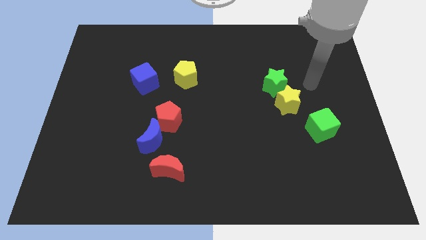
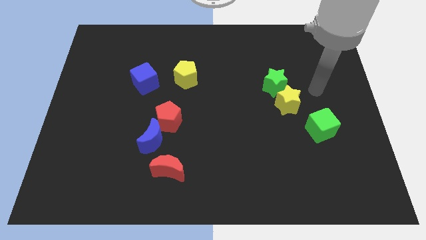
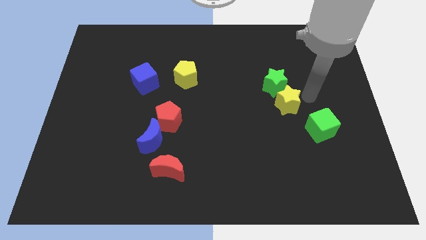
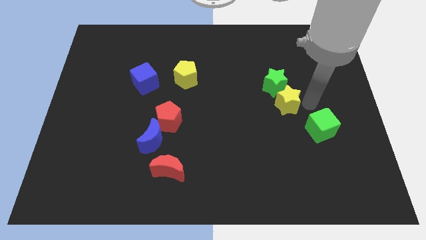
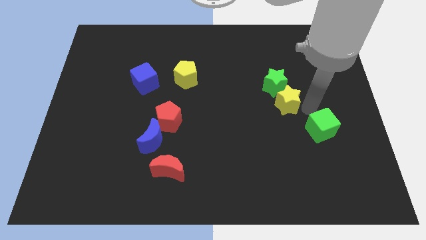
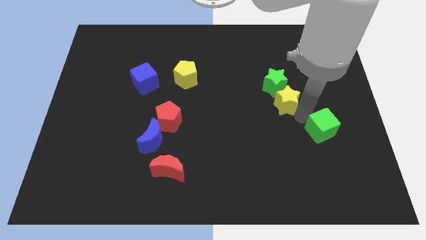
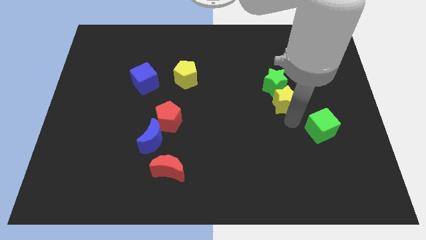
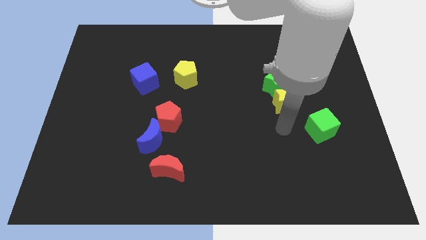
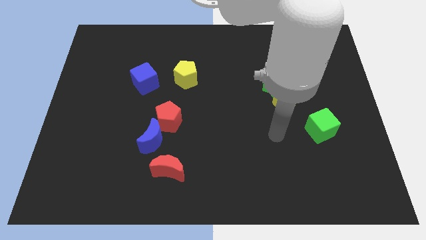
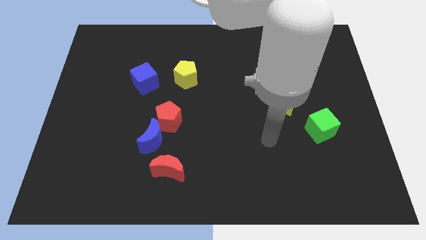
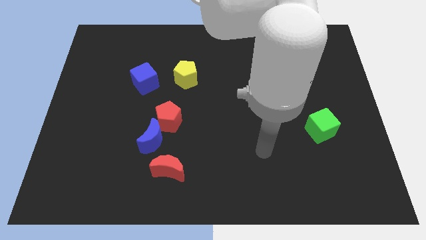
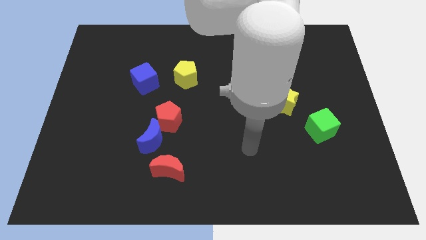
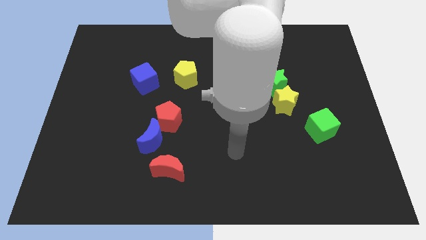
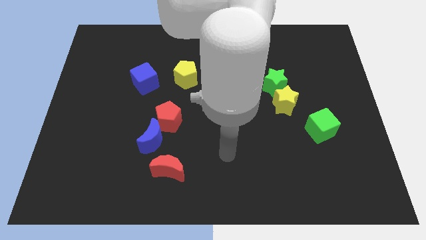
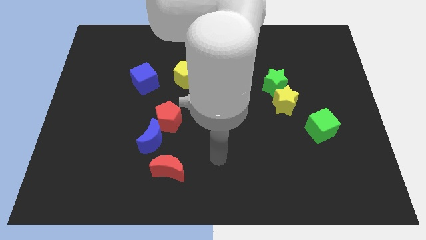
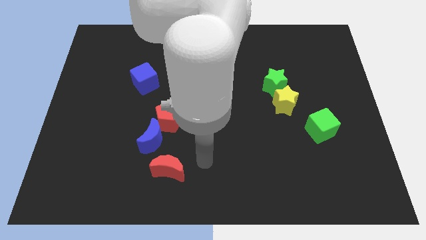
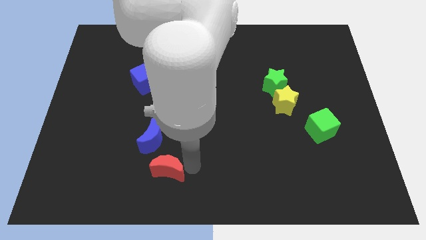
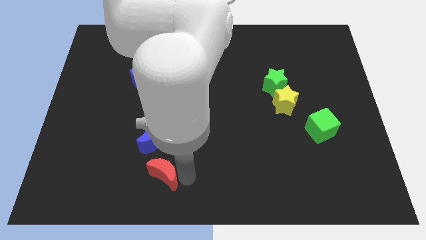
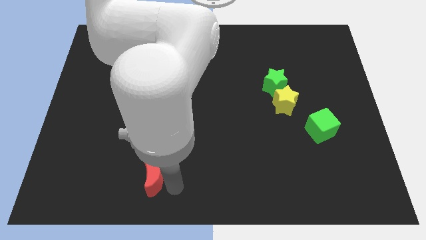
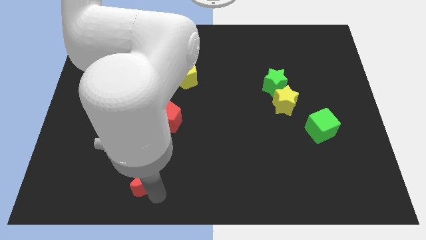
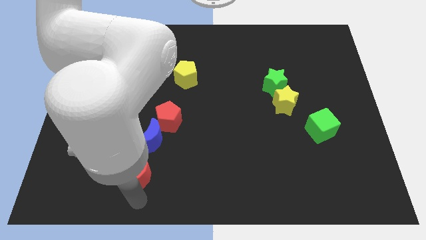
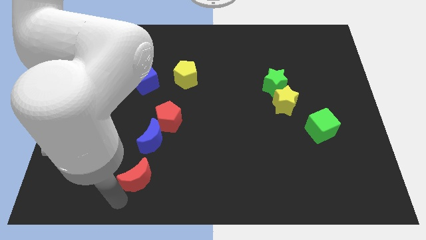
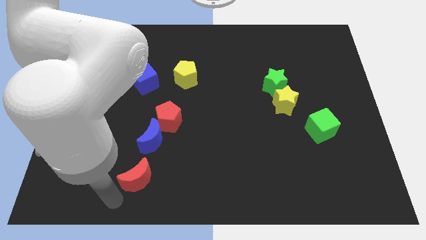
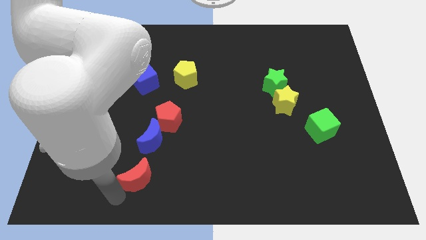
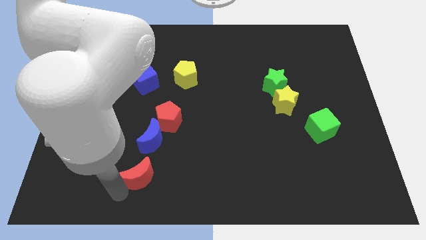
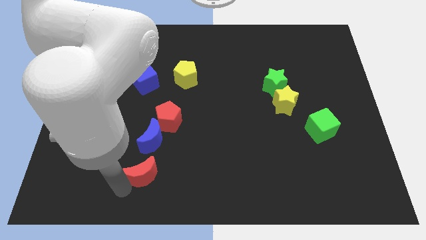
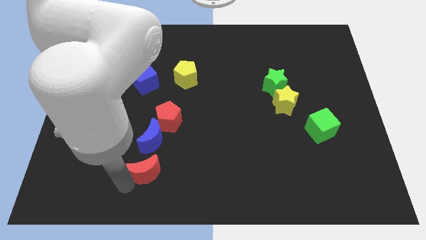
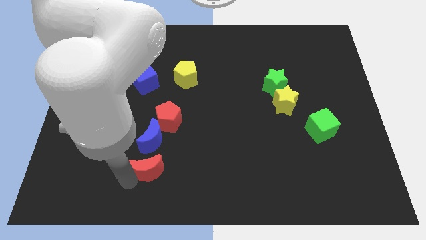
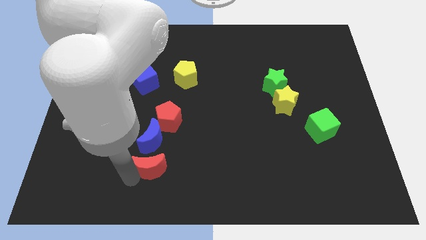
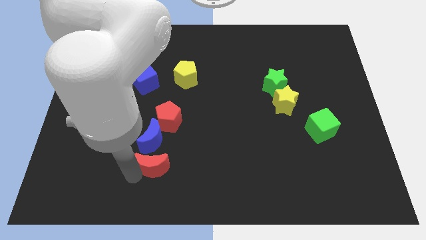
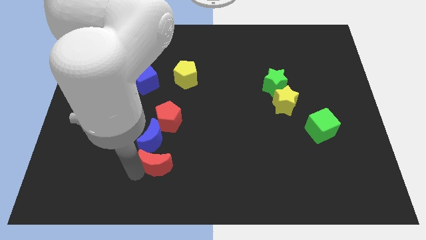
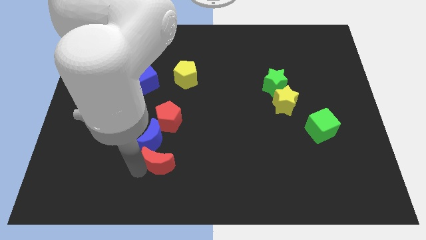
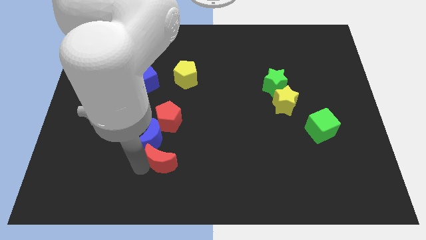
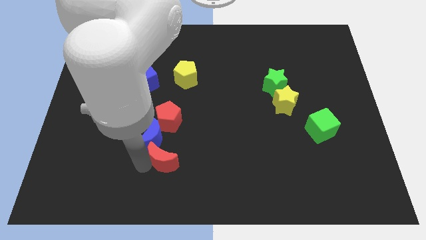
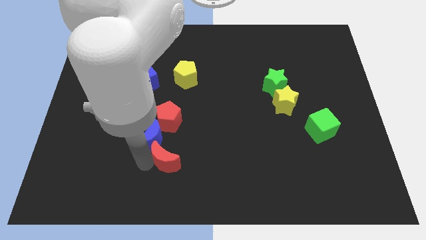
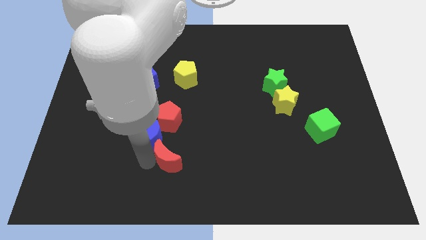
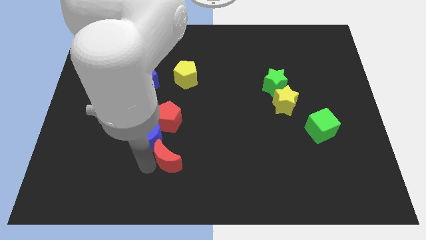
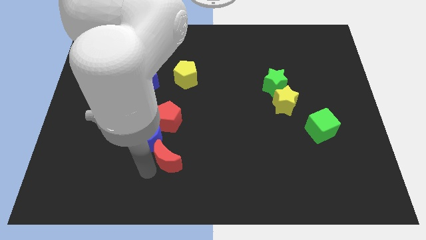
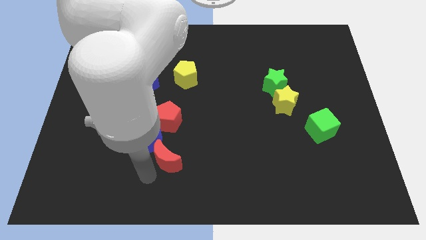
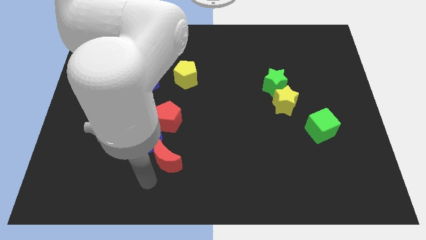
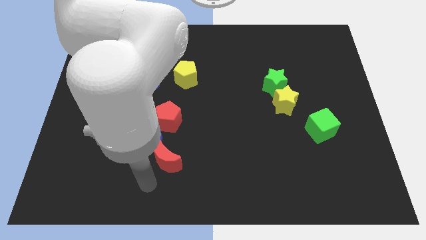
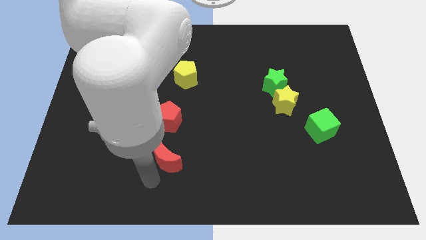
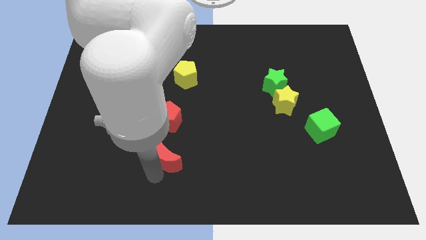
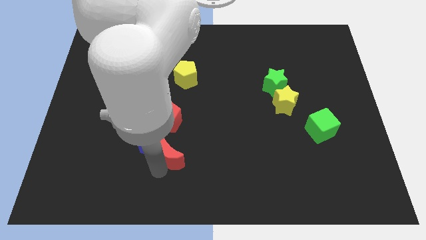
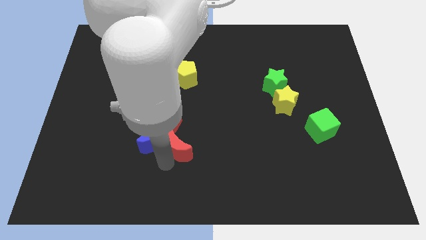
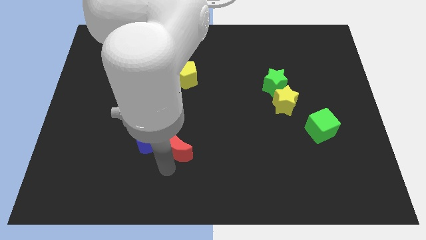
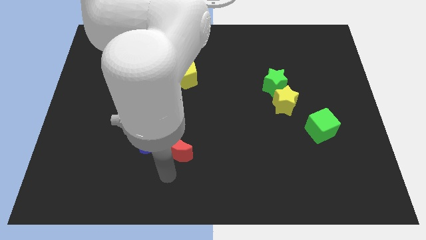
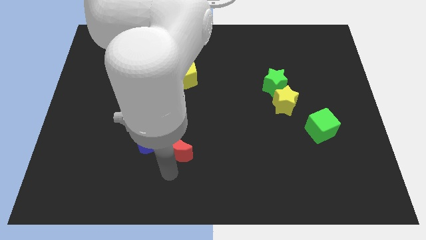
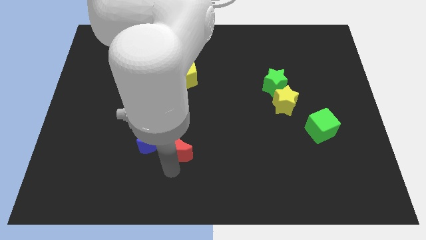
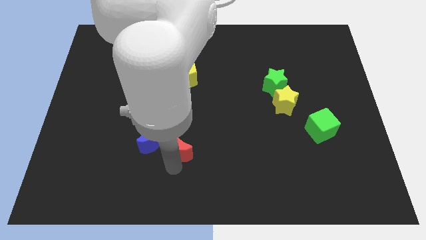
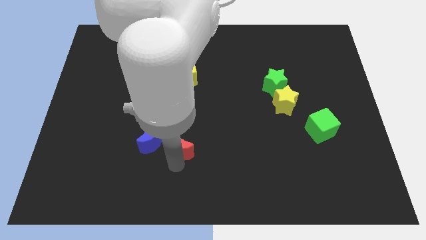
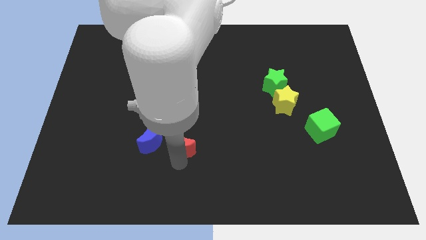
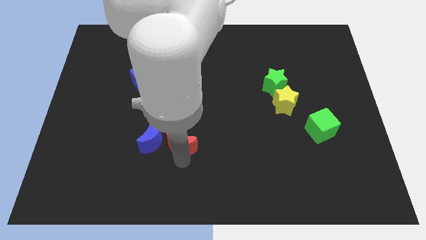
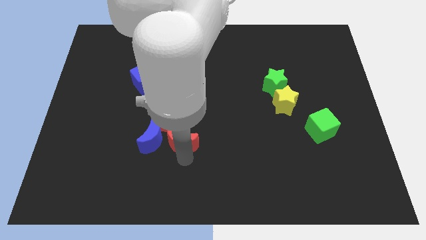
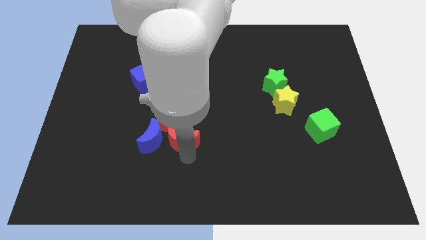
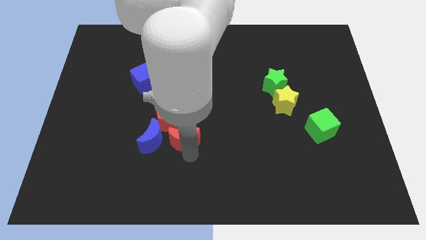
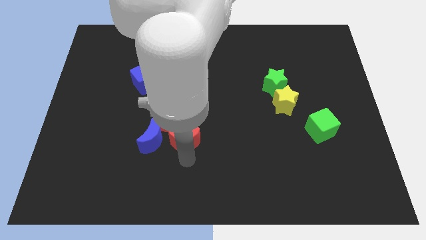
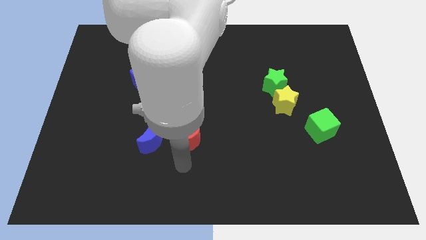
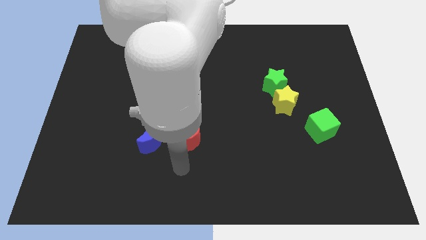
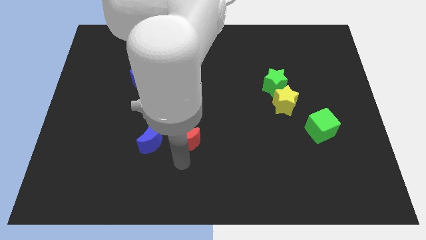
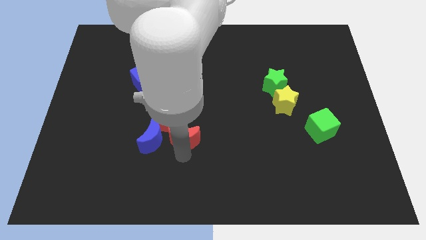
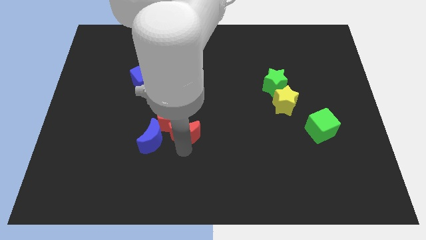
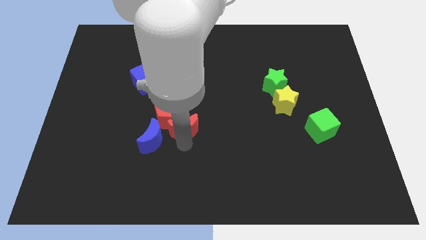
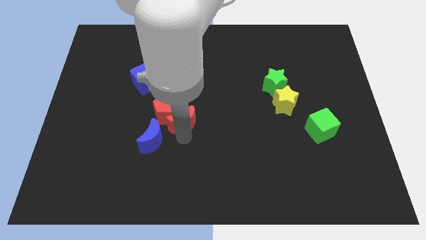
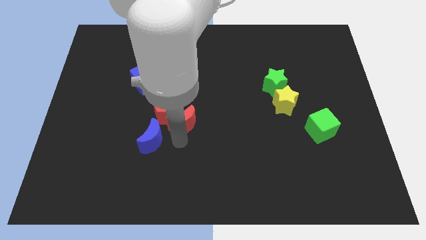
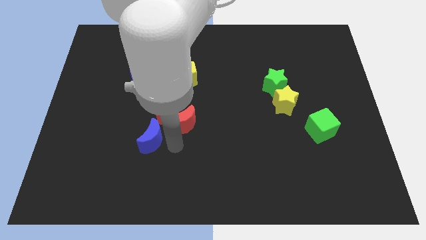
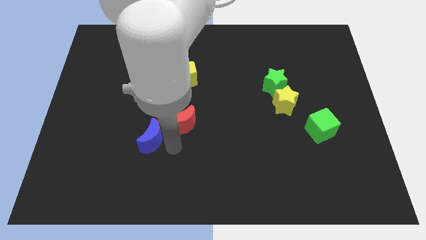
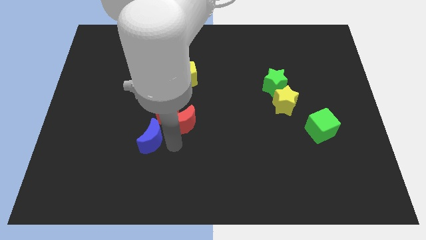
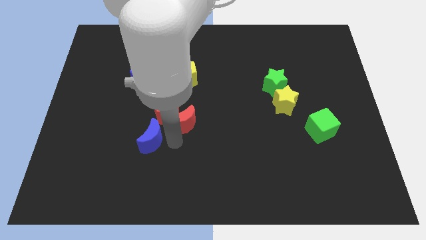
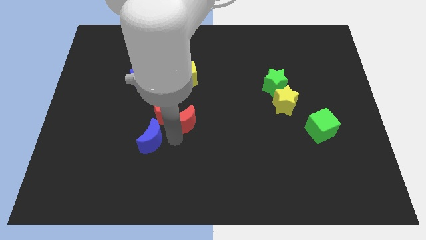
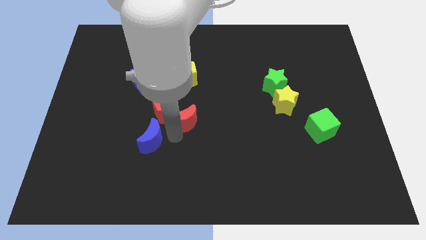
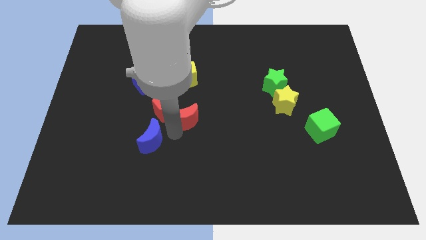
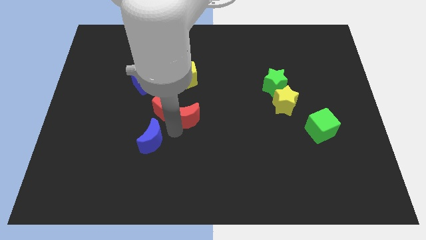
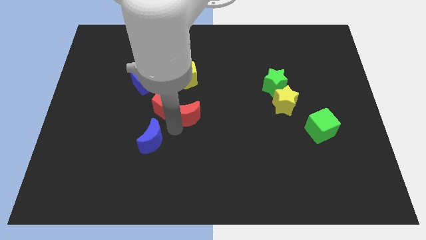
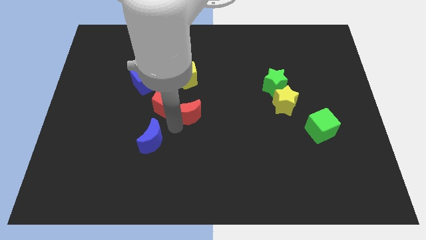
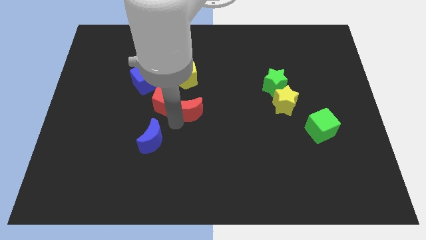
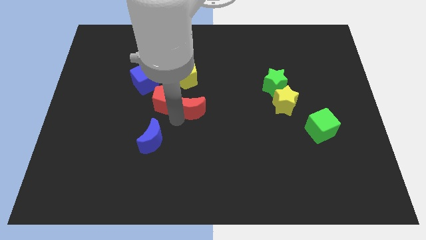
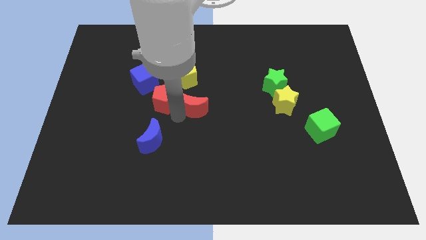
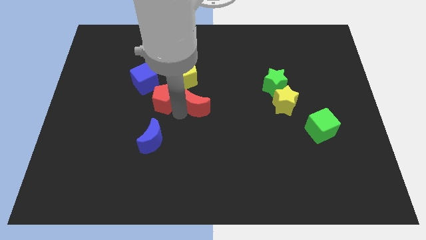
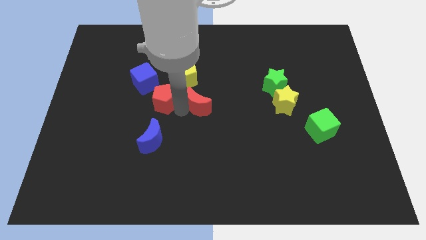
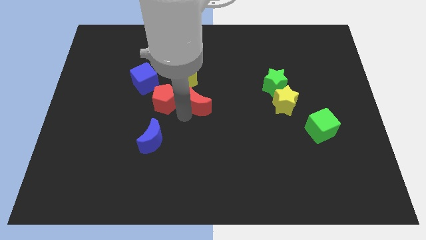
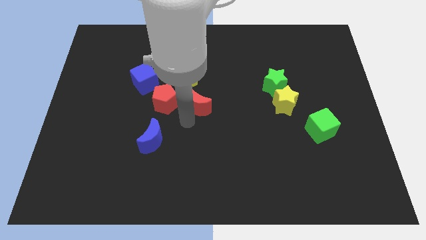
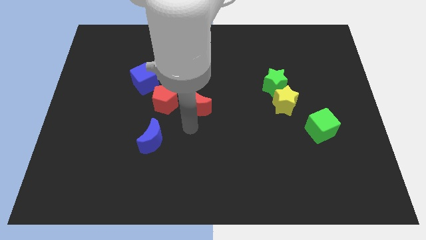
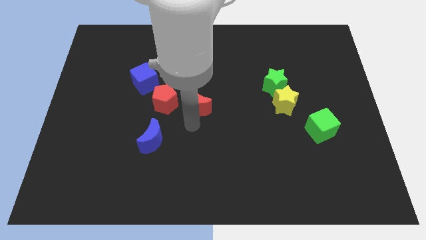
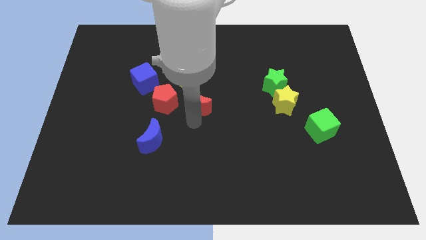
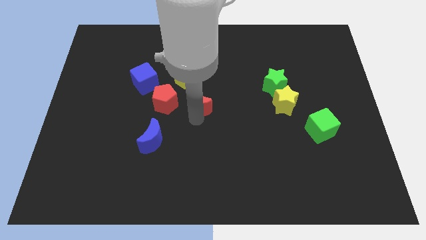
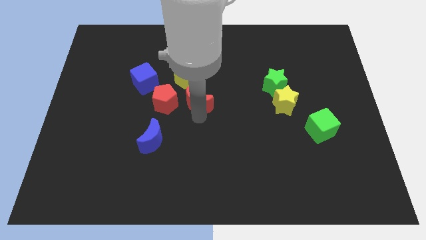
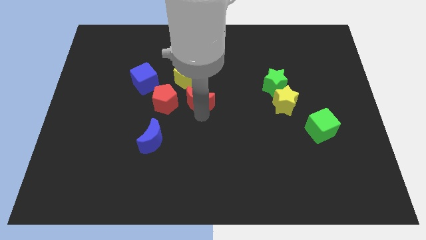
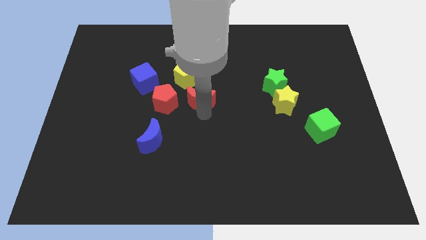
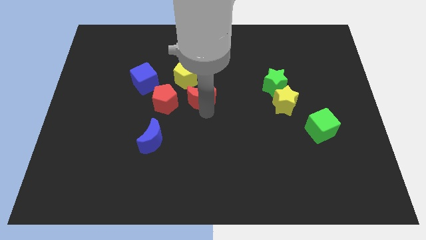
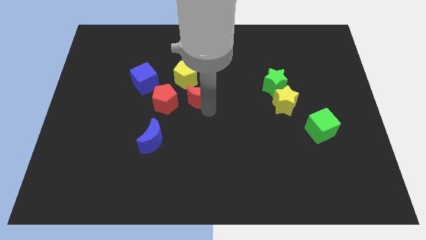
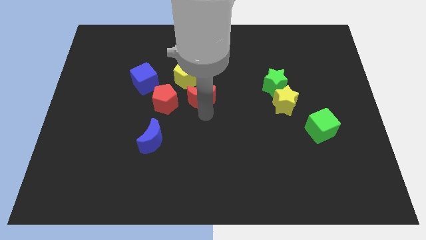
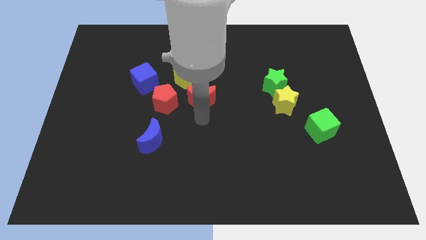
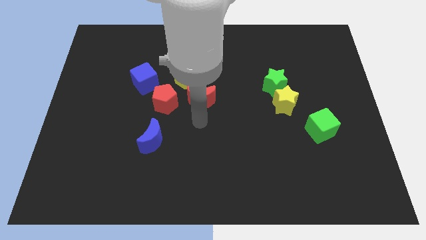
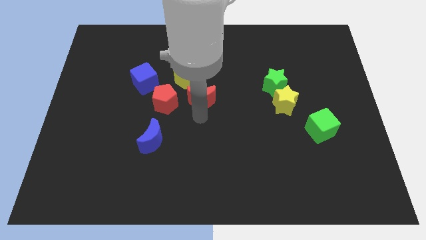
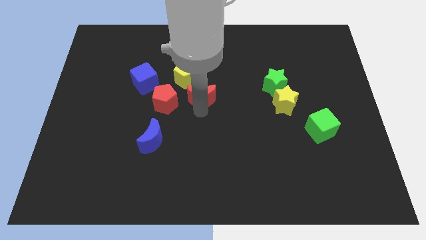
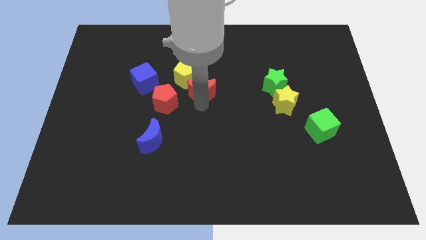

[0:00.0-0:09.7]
slide the red moon to the right side of the blue cube
